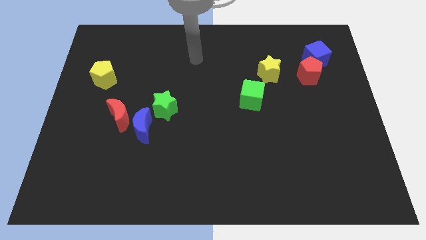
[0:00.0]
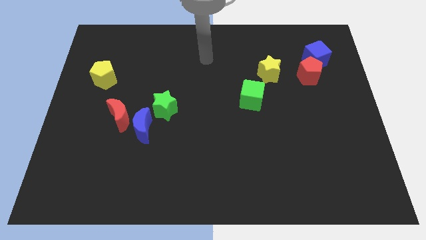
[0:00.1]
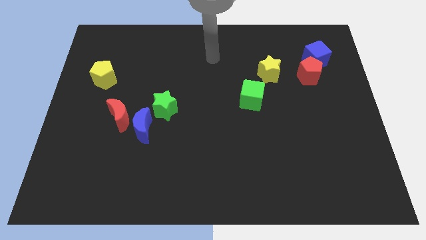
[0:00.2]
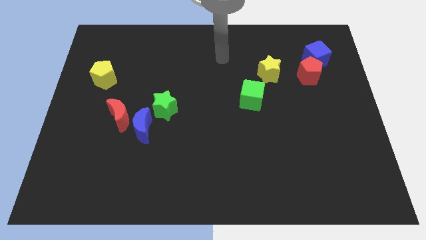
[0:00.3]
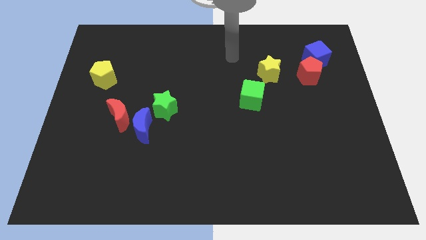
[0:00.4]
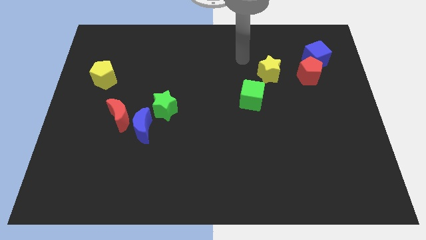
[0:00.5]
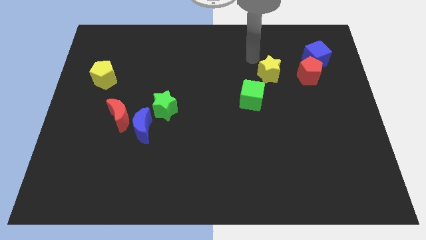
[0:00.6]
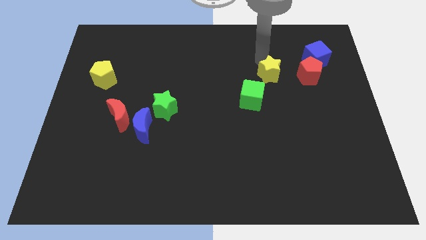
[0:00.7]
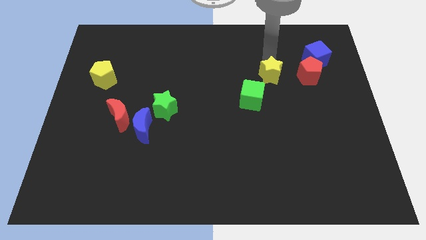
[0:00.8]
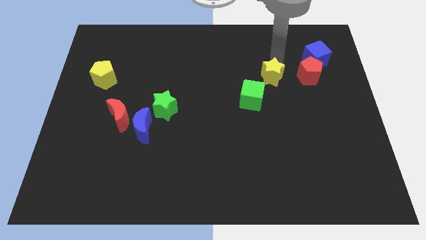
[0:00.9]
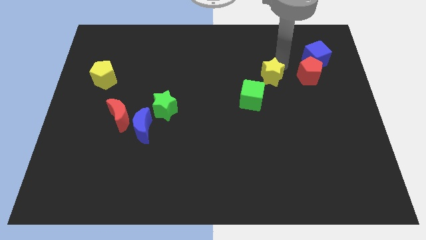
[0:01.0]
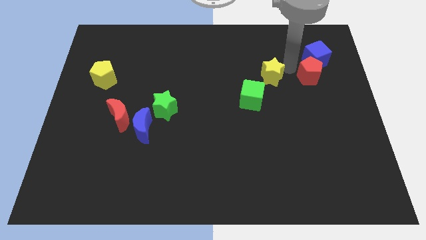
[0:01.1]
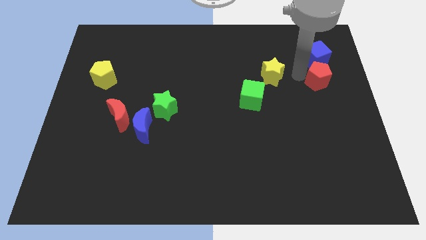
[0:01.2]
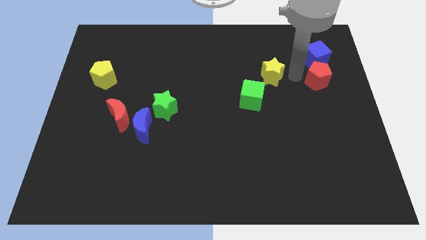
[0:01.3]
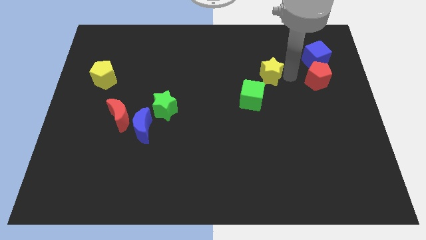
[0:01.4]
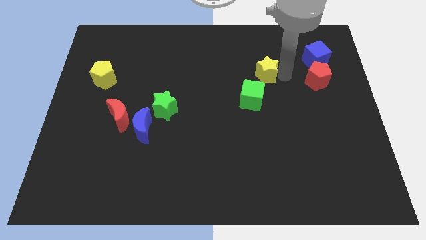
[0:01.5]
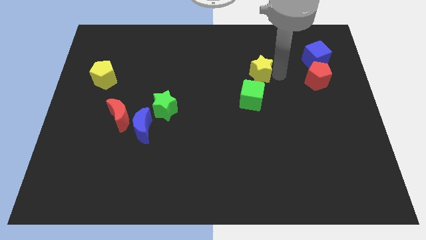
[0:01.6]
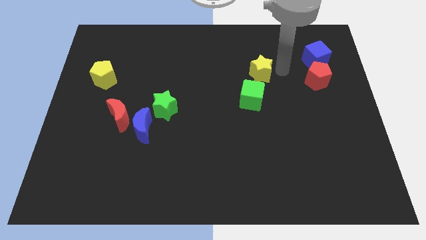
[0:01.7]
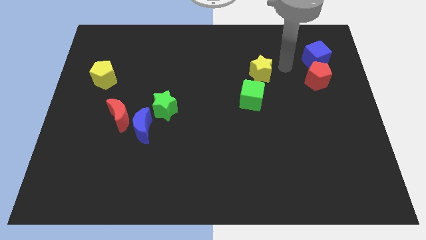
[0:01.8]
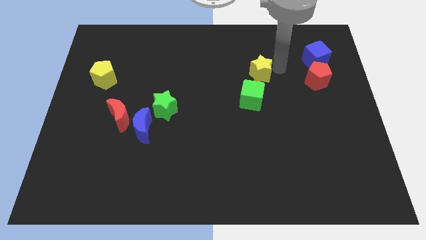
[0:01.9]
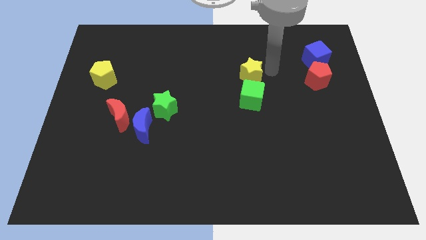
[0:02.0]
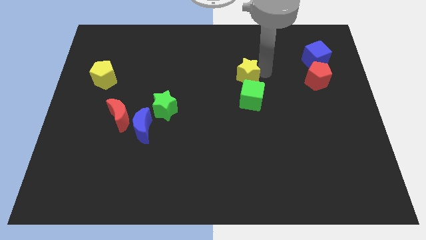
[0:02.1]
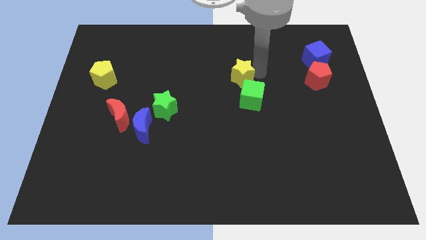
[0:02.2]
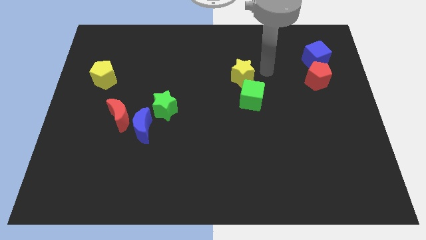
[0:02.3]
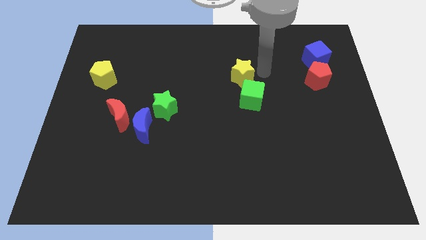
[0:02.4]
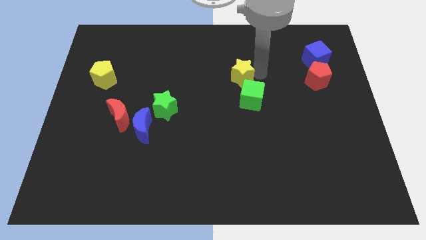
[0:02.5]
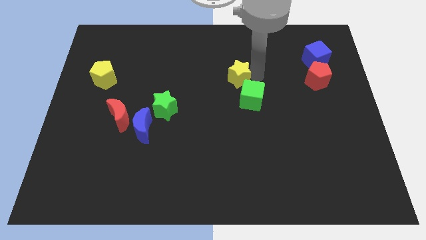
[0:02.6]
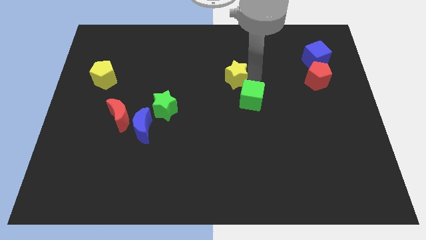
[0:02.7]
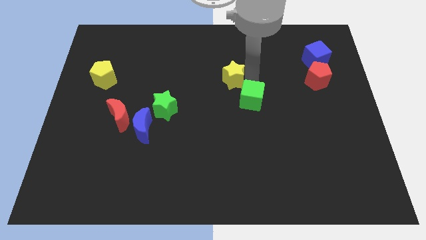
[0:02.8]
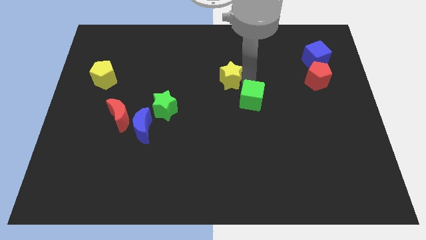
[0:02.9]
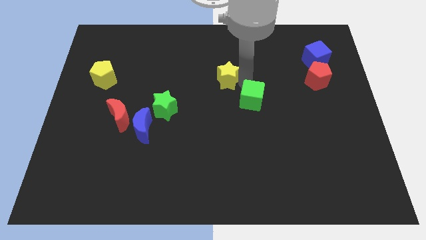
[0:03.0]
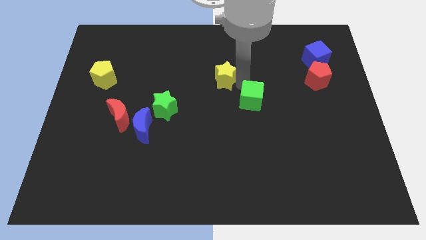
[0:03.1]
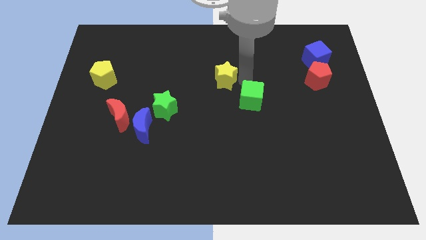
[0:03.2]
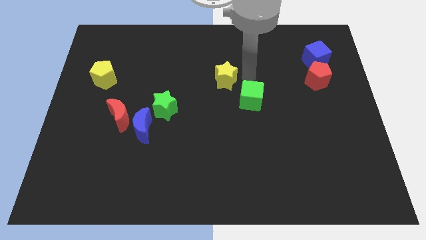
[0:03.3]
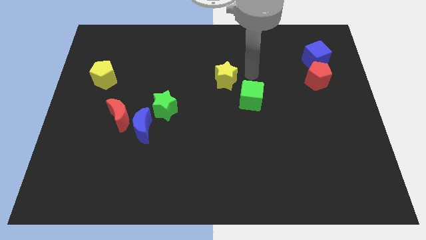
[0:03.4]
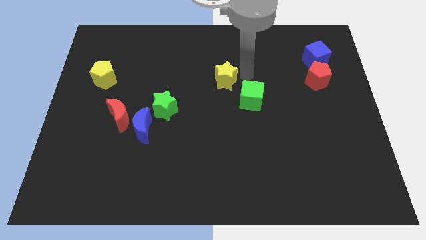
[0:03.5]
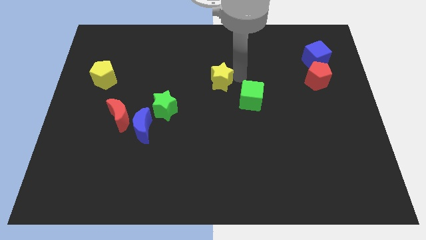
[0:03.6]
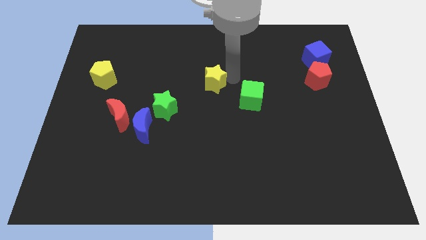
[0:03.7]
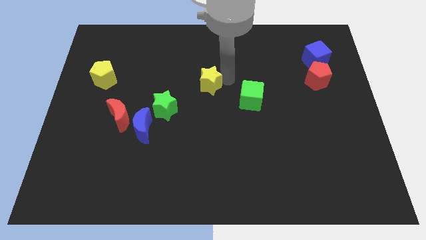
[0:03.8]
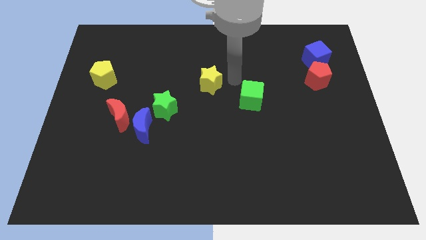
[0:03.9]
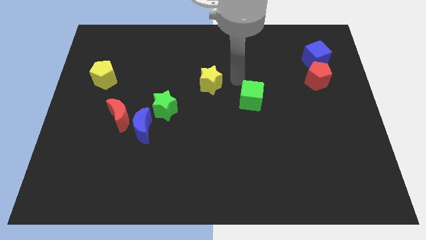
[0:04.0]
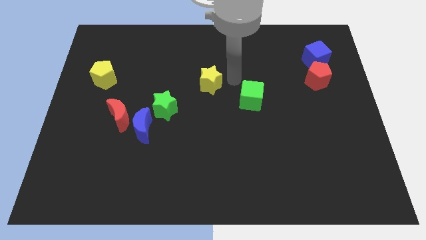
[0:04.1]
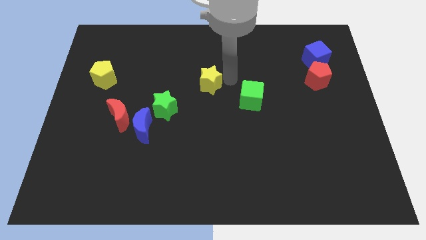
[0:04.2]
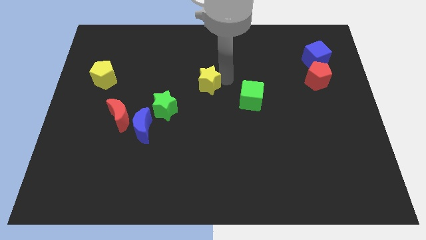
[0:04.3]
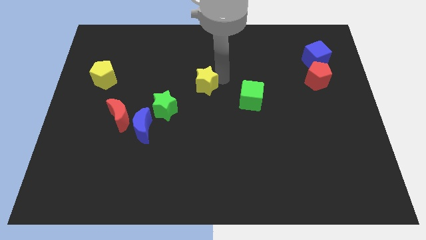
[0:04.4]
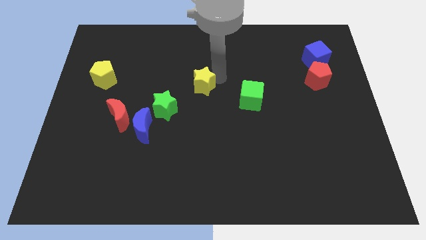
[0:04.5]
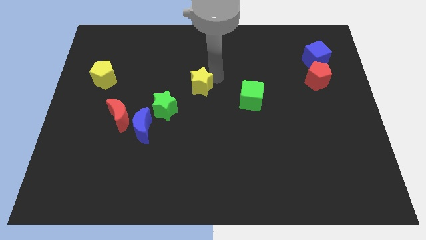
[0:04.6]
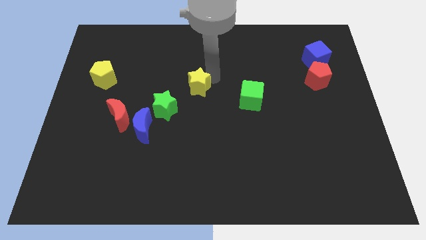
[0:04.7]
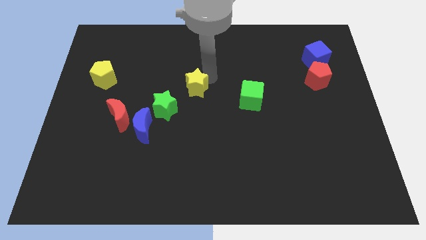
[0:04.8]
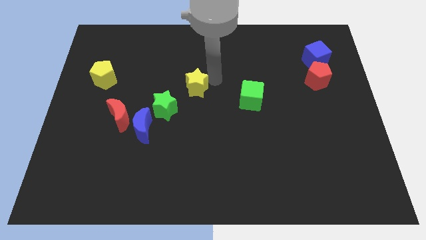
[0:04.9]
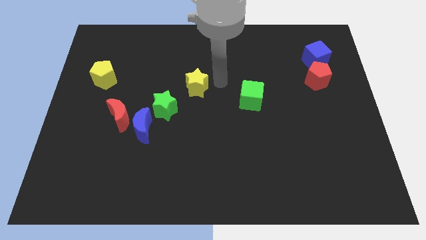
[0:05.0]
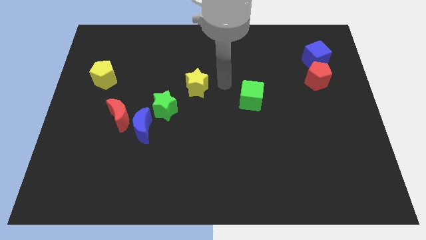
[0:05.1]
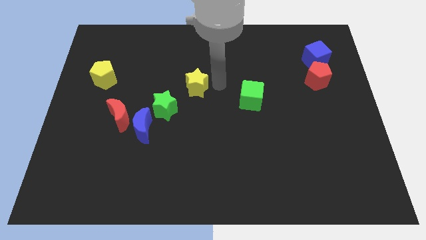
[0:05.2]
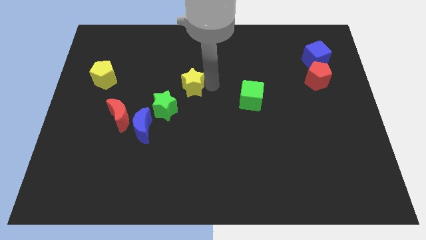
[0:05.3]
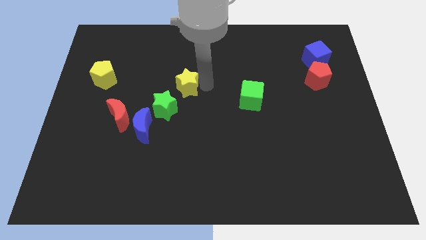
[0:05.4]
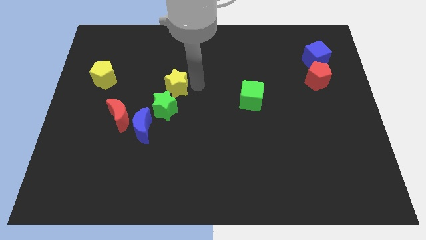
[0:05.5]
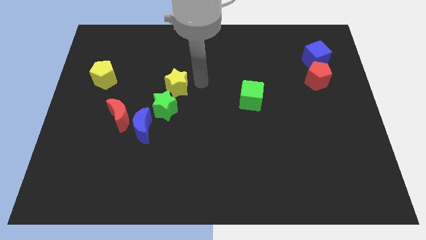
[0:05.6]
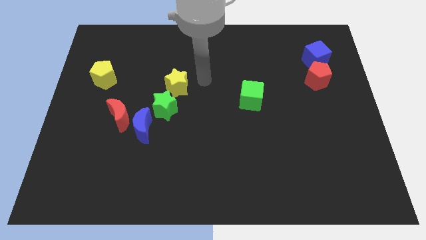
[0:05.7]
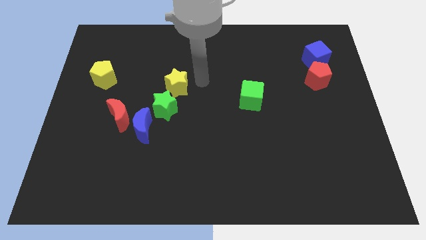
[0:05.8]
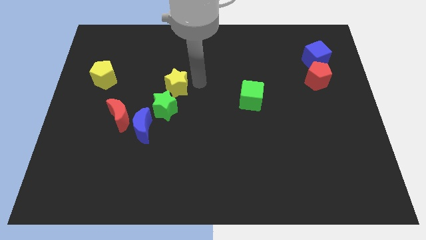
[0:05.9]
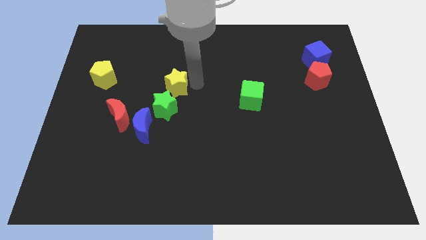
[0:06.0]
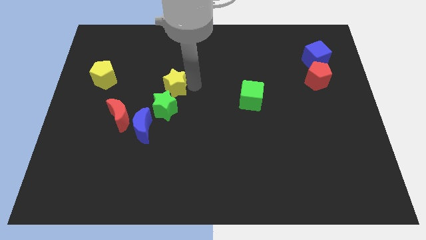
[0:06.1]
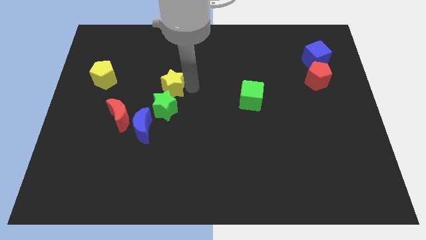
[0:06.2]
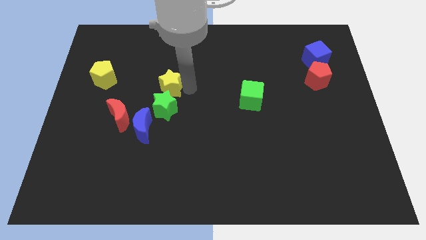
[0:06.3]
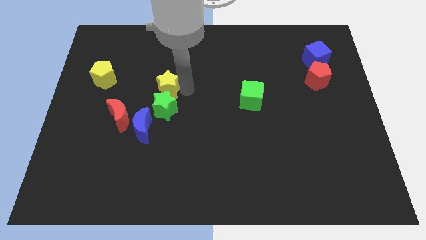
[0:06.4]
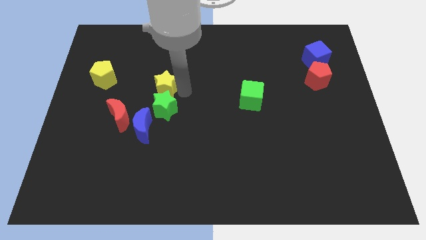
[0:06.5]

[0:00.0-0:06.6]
push the yellow star to the top of the blue moon

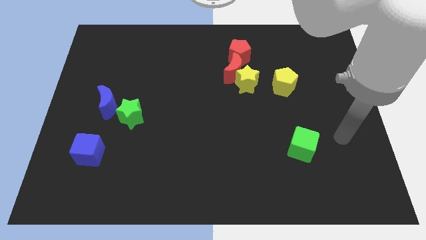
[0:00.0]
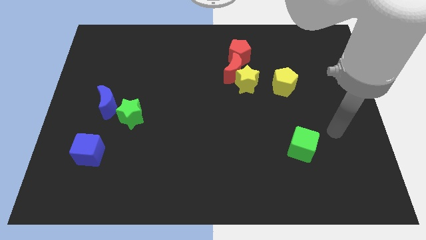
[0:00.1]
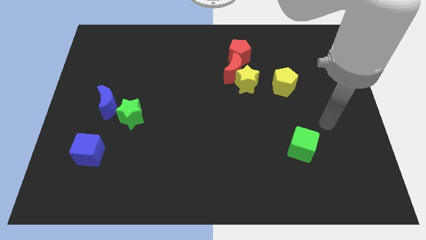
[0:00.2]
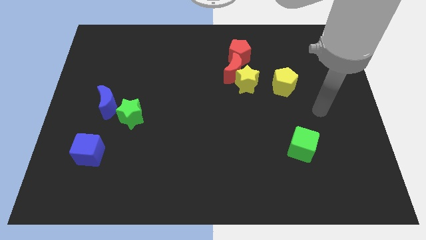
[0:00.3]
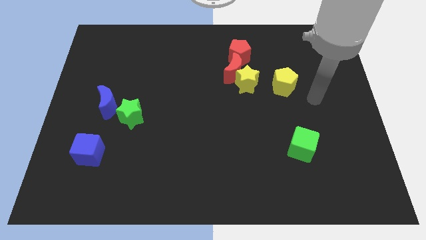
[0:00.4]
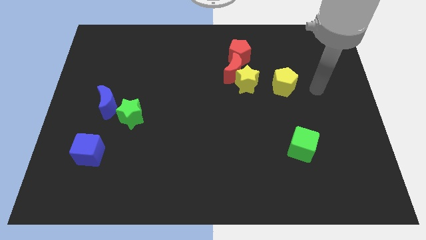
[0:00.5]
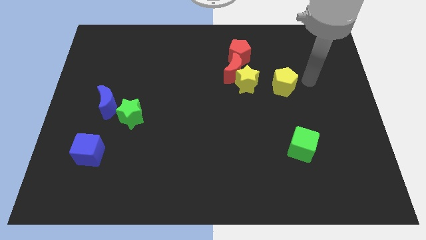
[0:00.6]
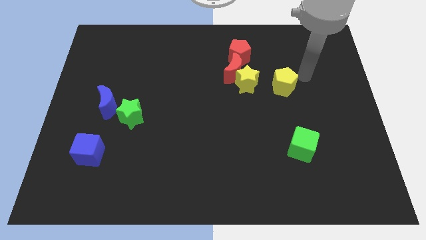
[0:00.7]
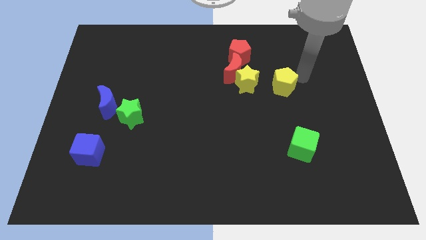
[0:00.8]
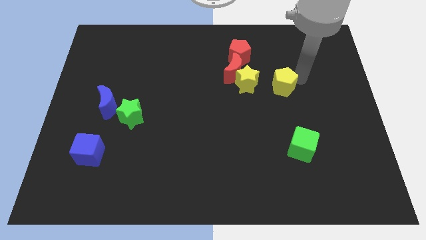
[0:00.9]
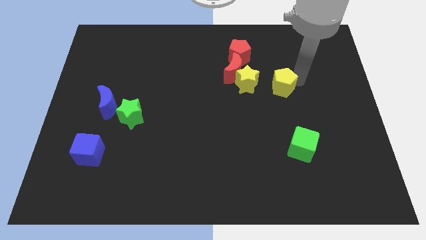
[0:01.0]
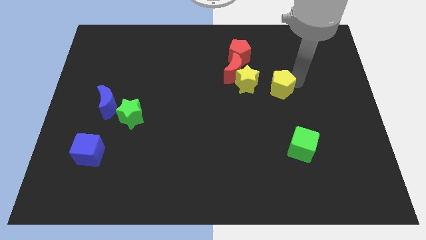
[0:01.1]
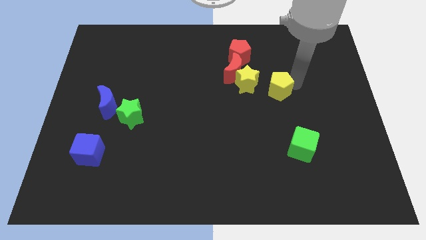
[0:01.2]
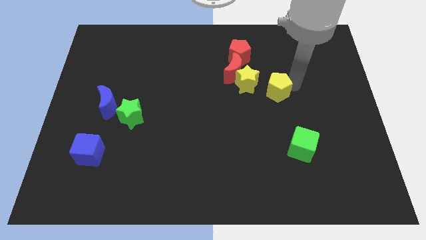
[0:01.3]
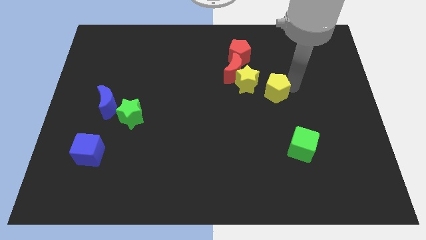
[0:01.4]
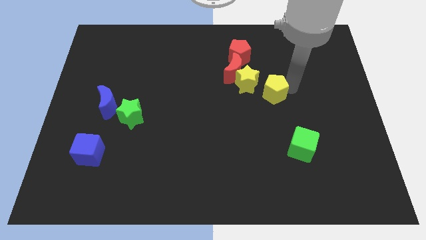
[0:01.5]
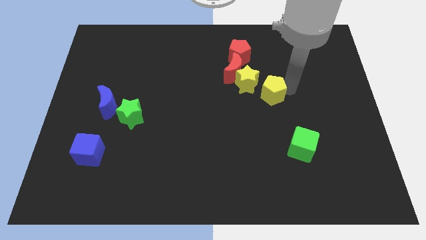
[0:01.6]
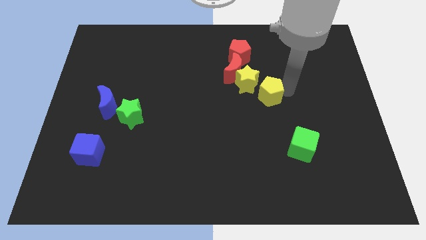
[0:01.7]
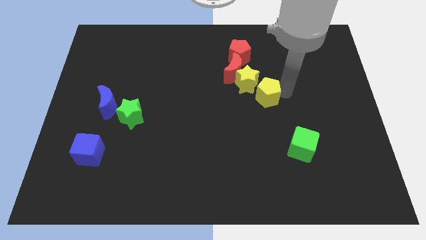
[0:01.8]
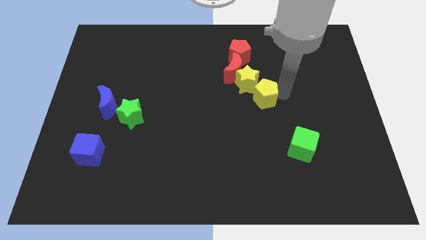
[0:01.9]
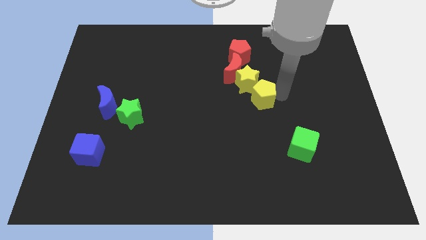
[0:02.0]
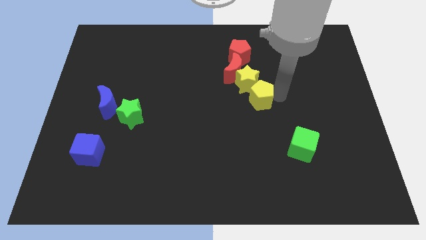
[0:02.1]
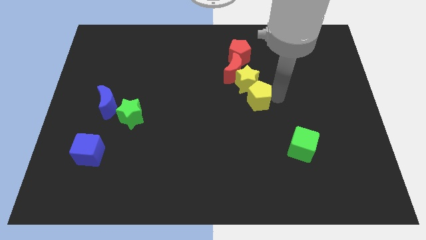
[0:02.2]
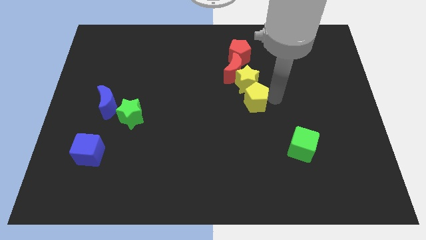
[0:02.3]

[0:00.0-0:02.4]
put the yellow pentagon below the red pentagon
